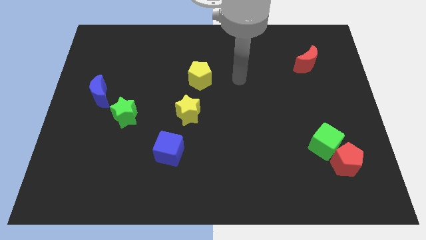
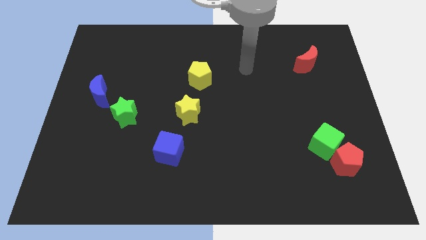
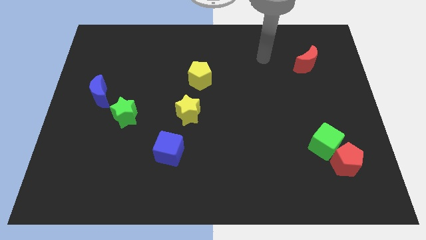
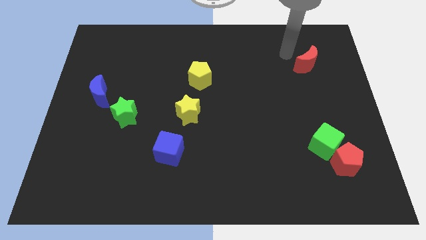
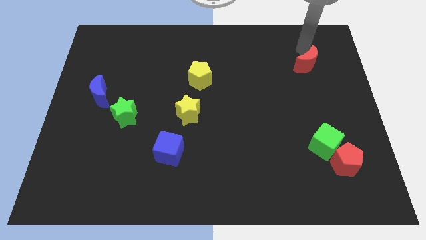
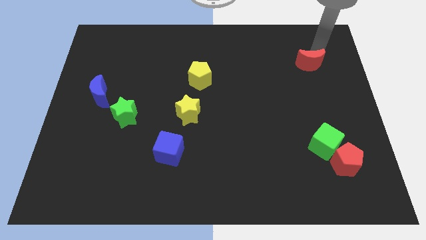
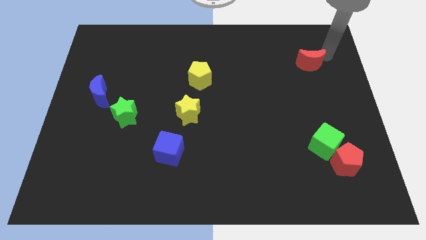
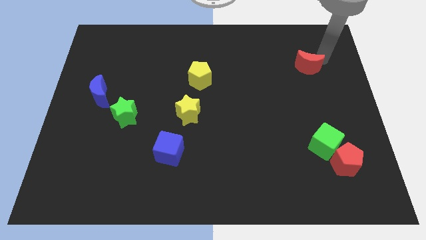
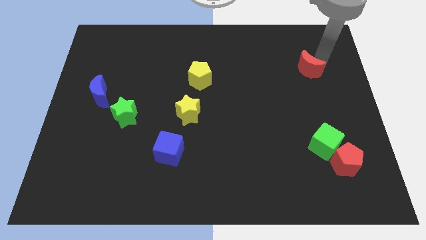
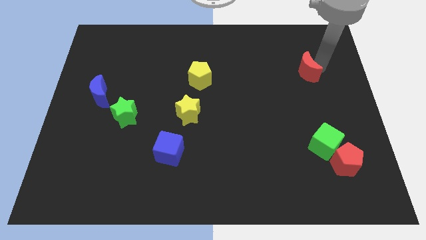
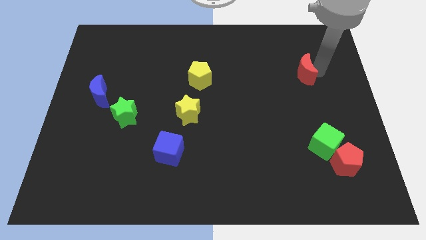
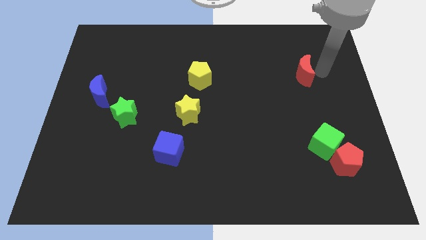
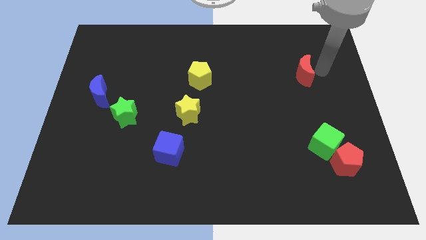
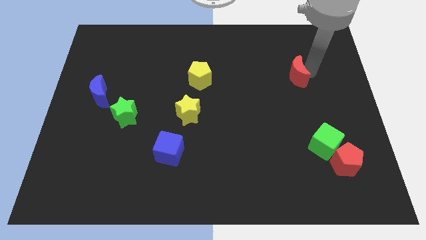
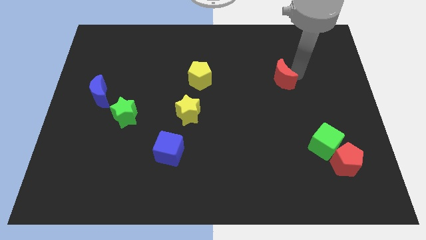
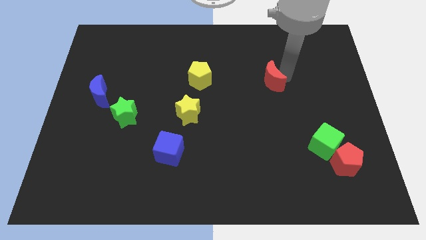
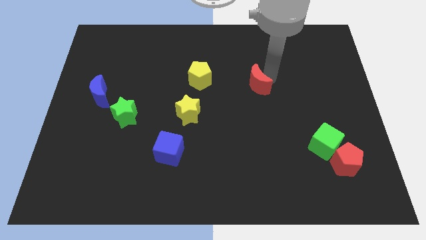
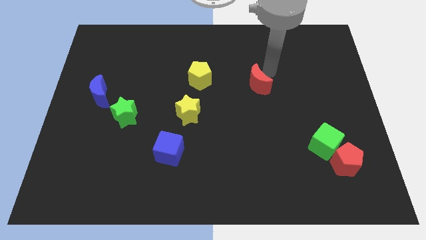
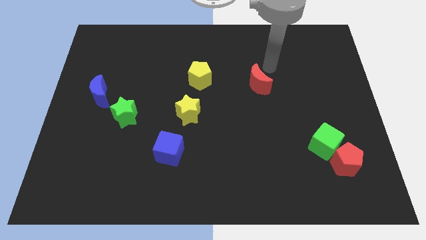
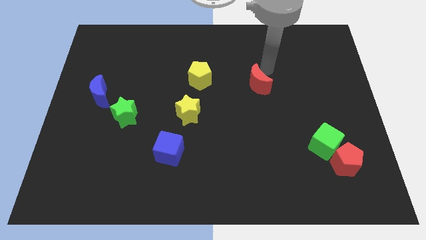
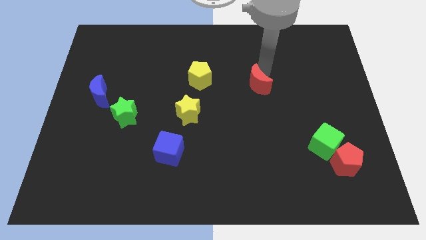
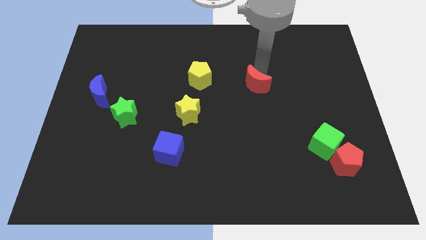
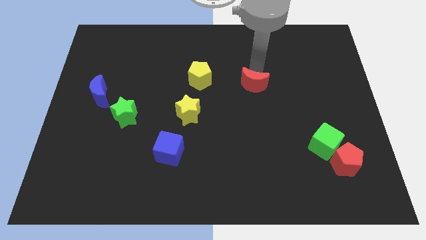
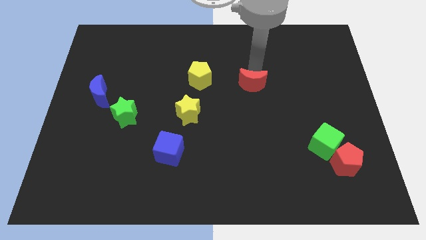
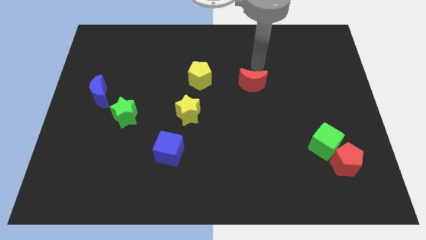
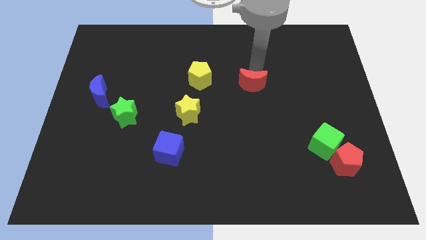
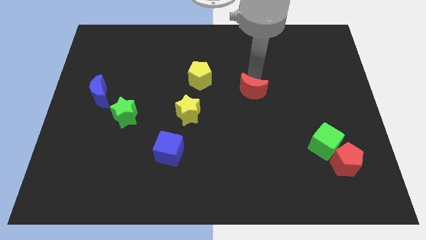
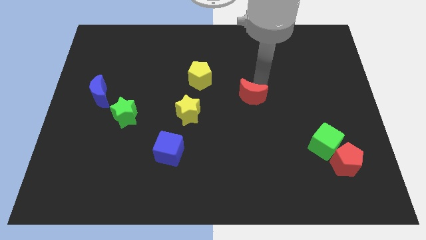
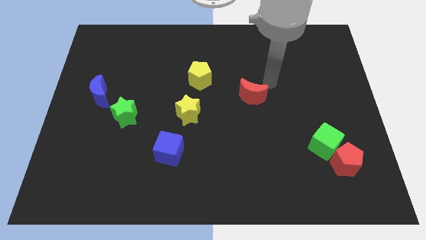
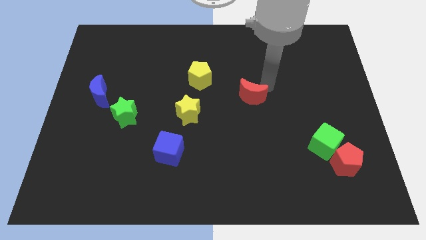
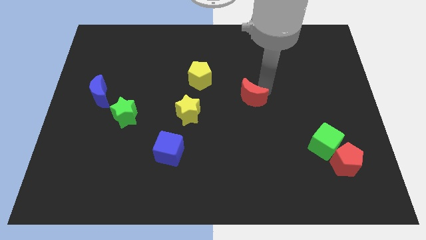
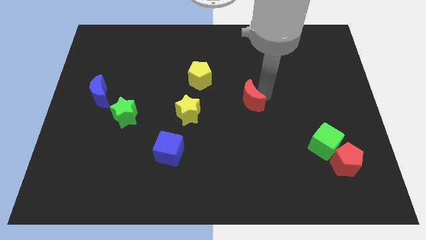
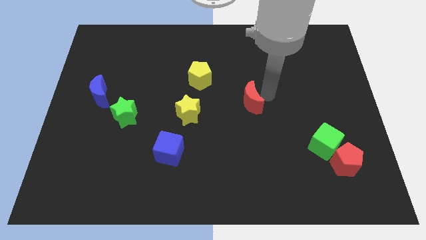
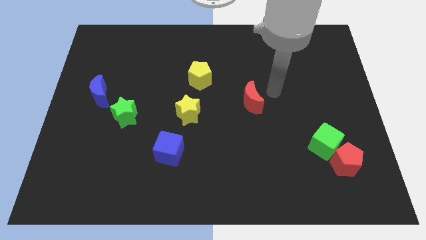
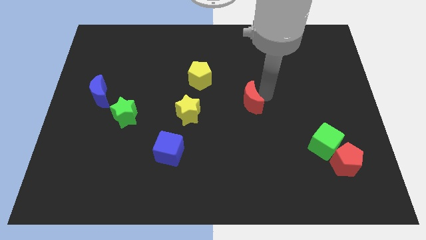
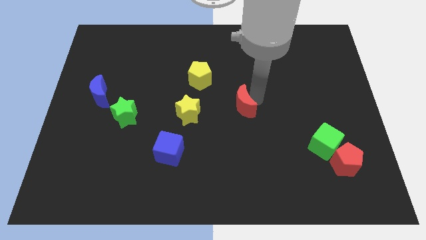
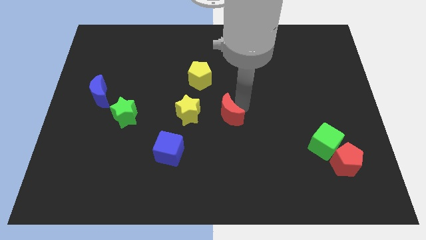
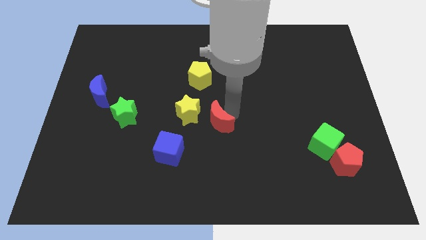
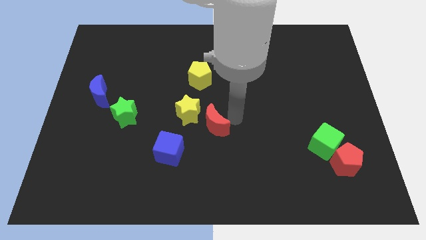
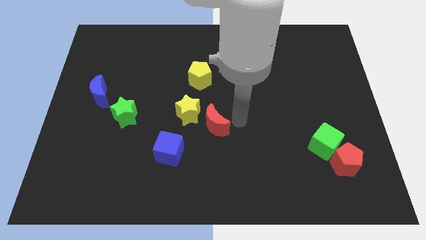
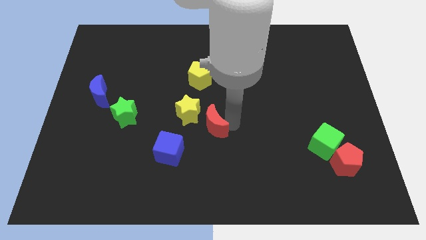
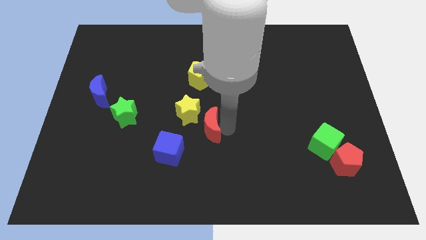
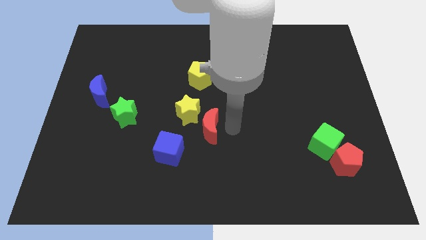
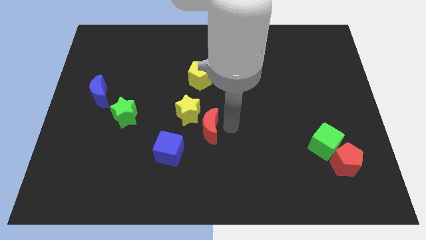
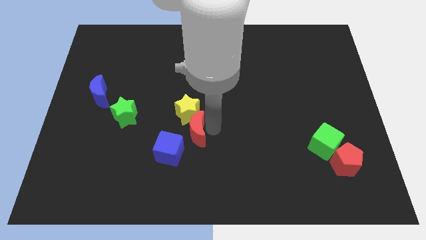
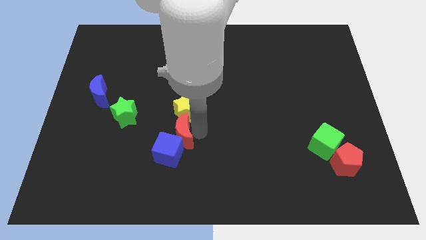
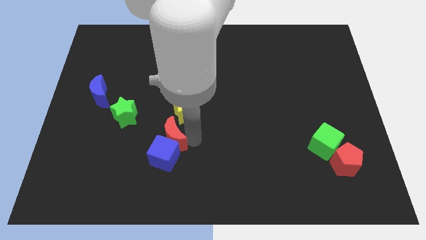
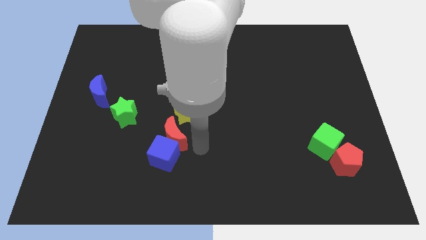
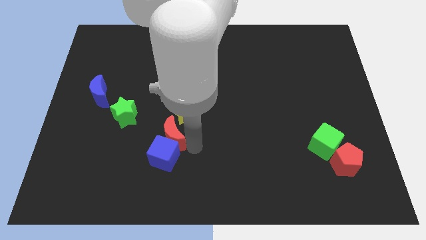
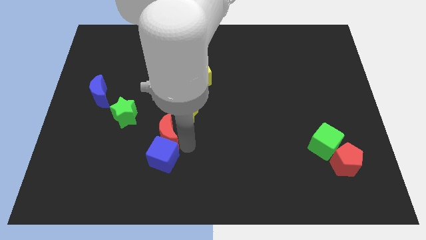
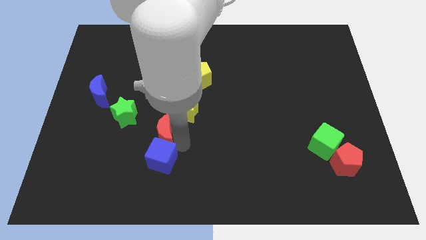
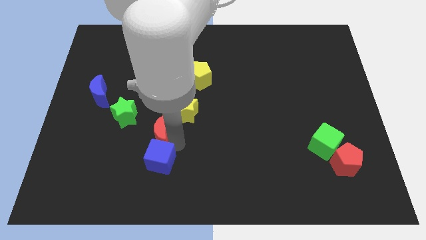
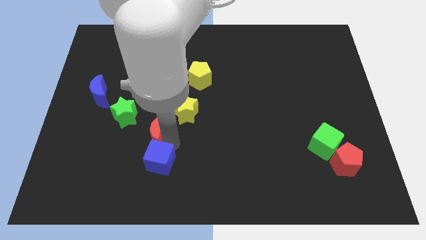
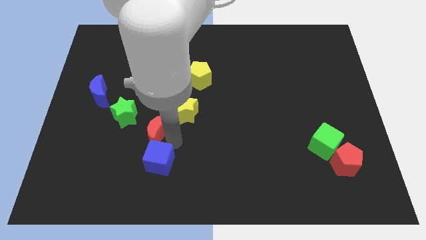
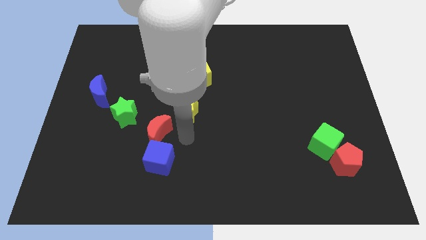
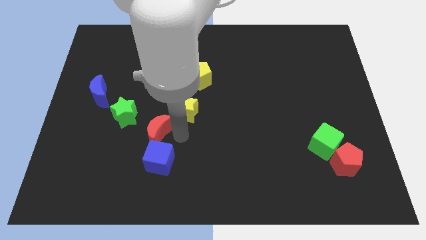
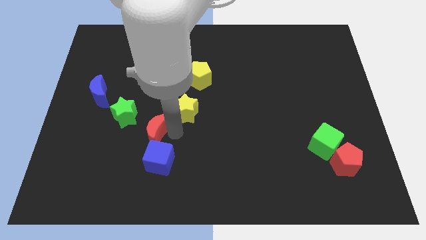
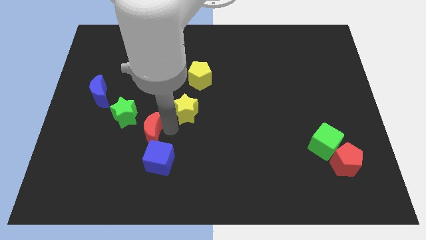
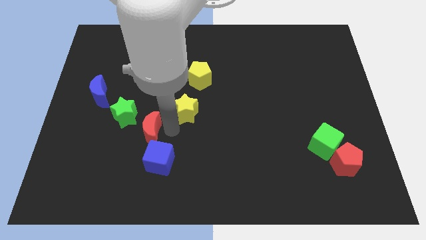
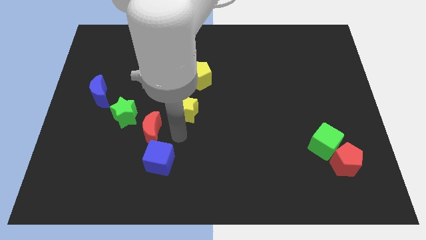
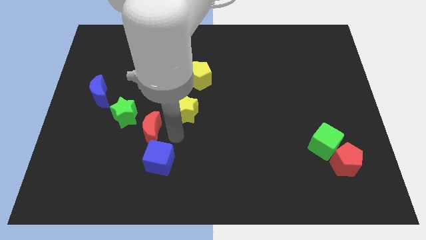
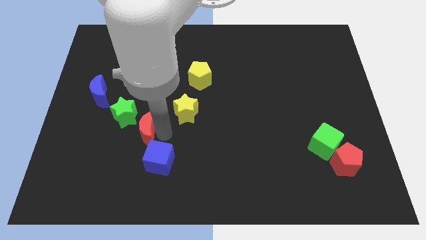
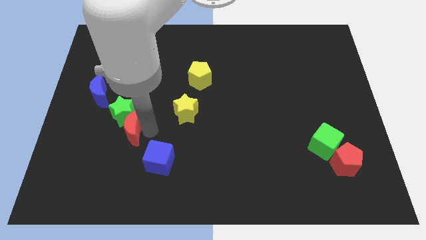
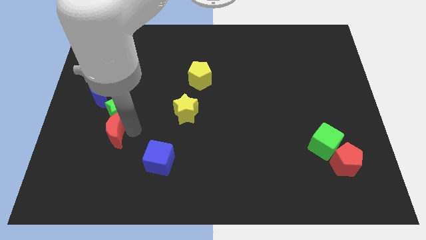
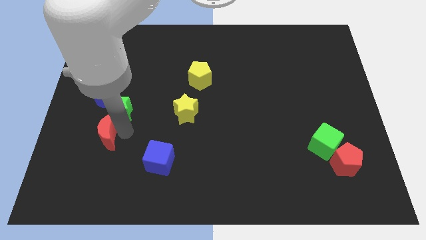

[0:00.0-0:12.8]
push the red moon below the blue moon

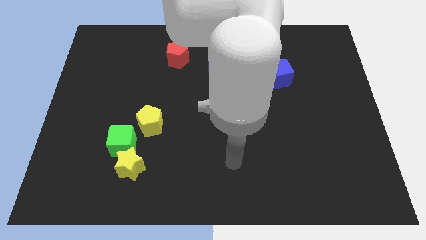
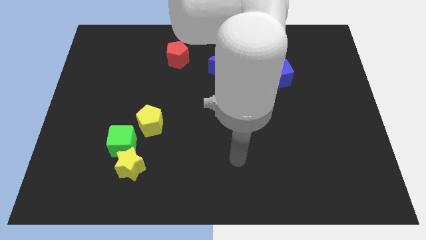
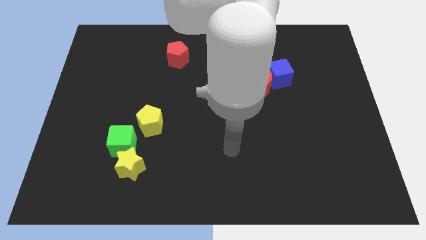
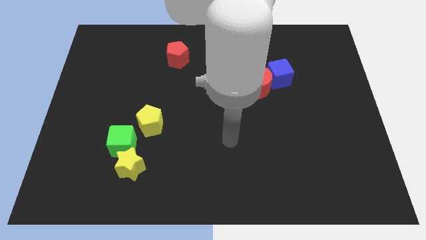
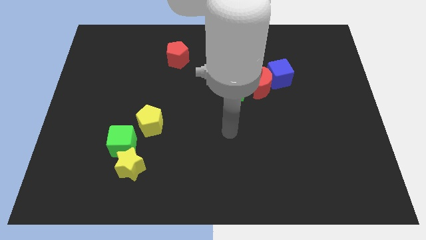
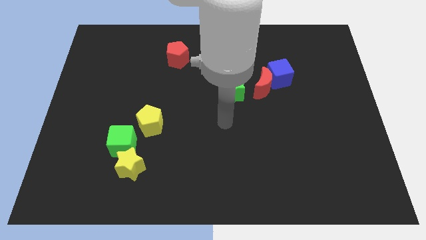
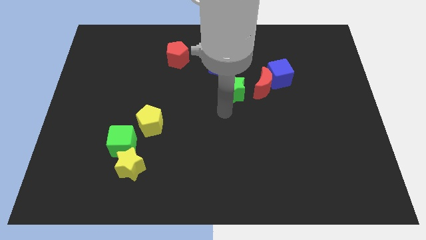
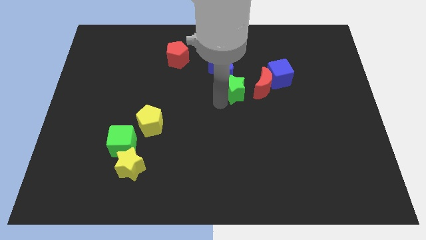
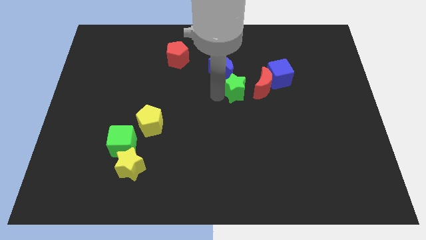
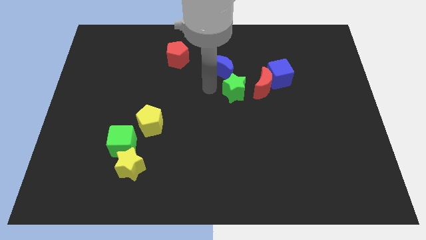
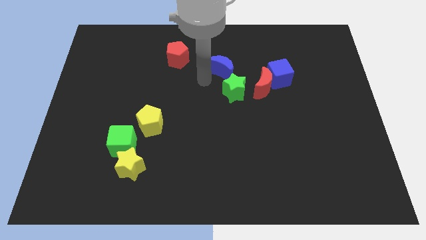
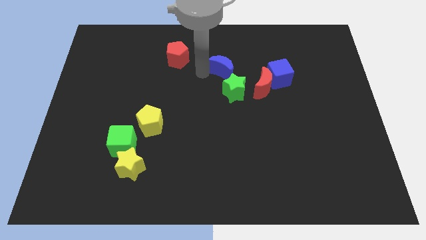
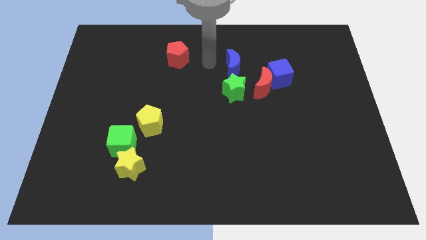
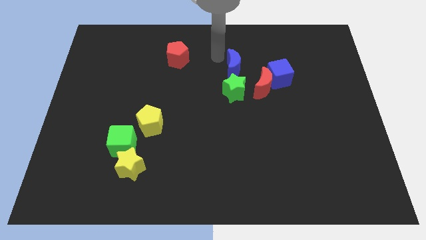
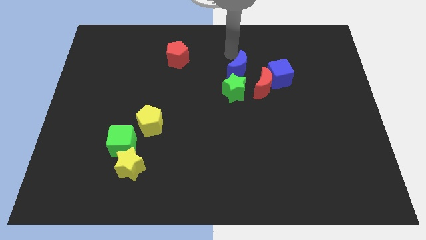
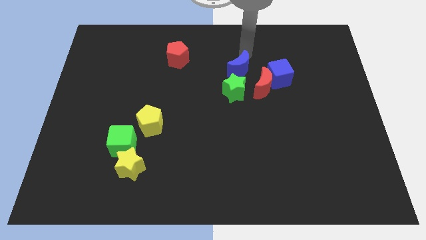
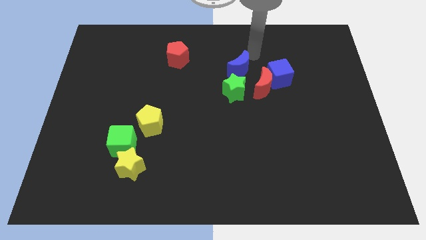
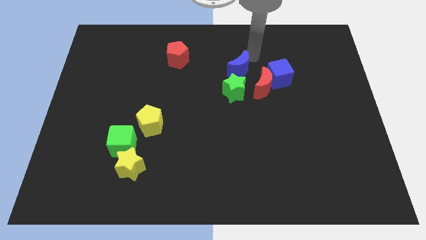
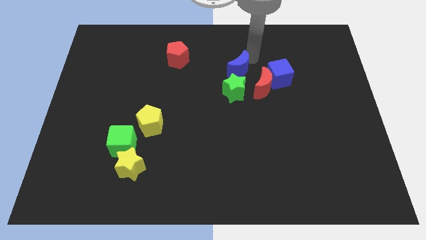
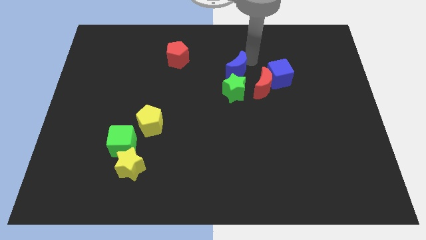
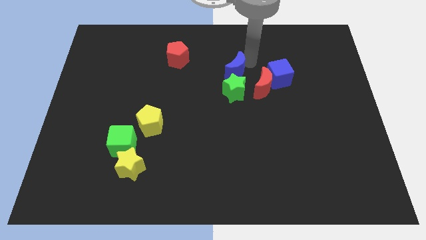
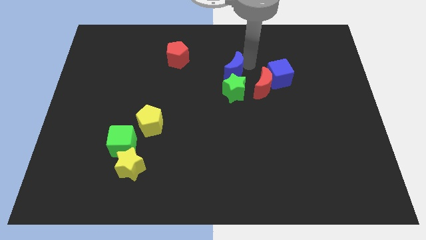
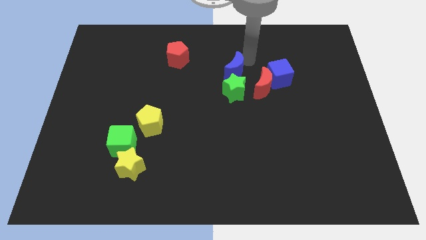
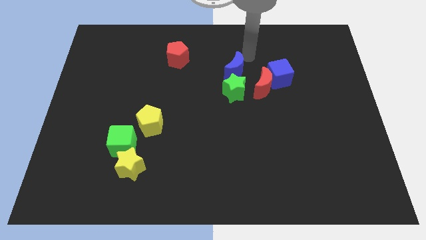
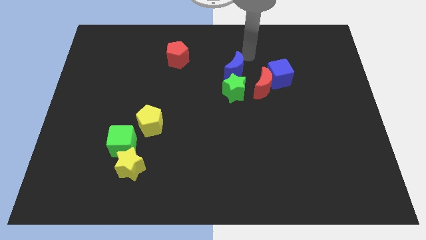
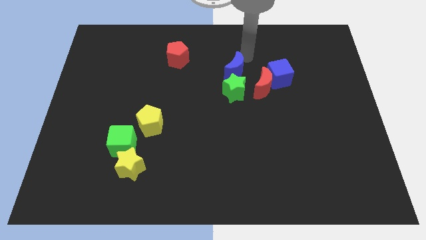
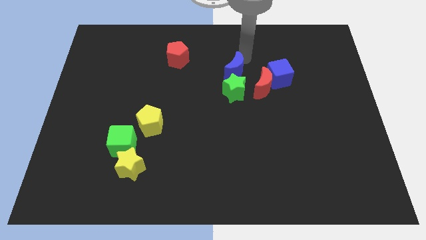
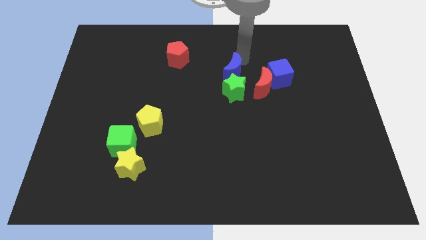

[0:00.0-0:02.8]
move the blue moon to the left side of the red moon
